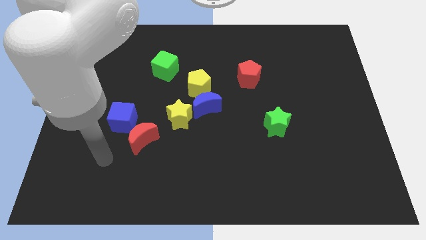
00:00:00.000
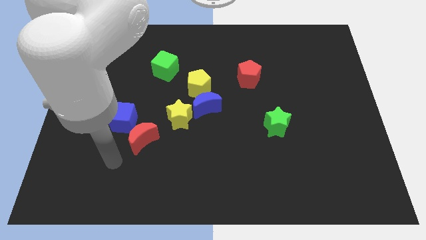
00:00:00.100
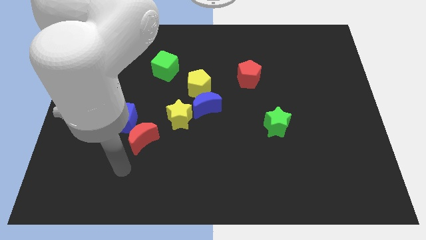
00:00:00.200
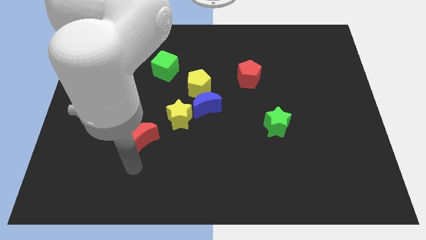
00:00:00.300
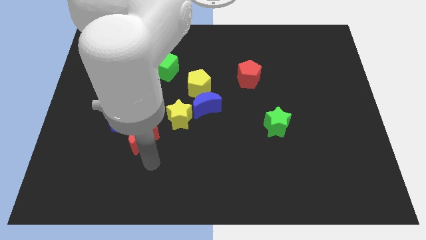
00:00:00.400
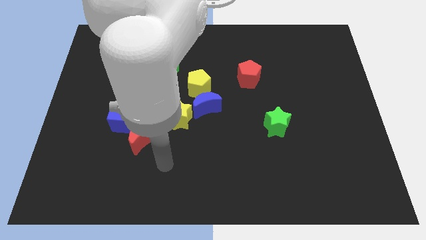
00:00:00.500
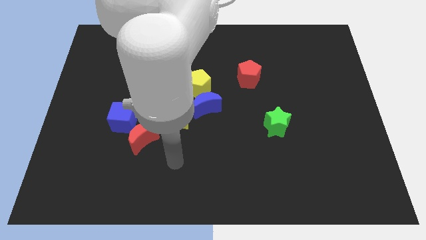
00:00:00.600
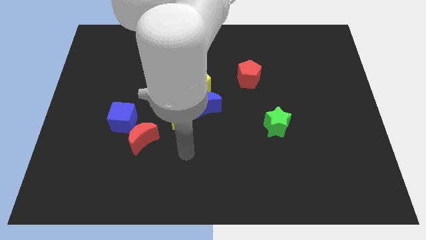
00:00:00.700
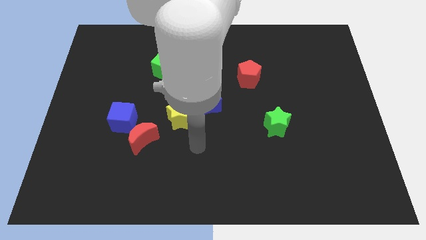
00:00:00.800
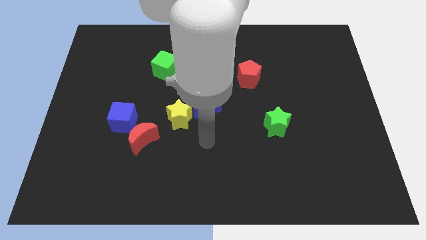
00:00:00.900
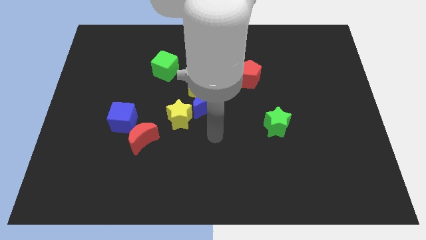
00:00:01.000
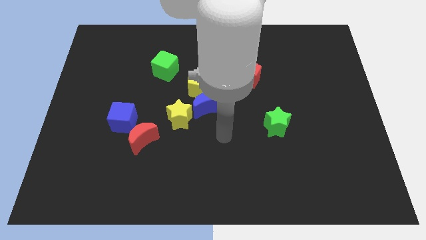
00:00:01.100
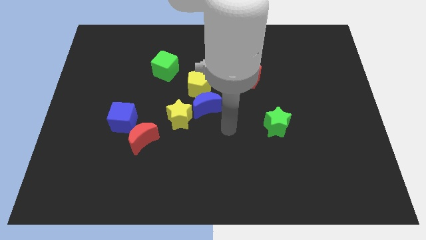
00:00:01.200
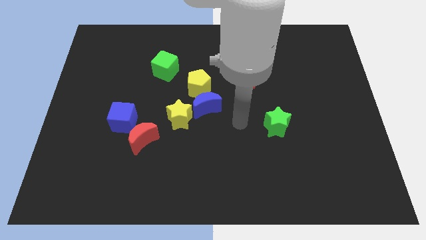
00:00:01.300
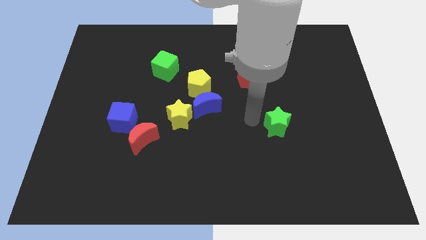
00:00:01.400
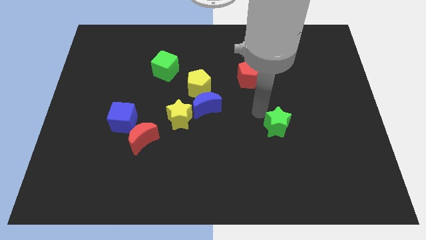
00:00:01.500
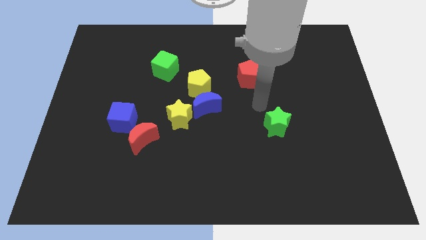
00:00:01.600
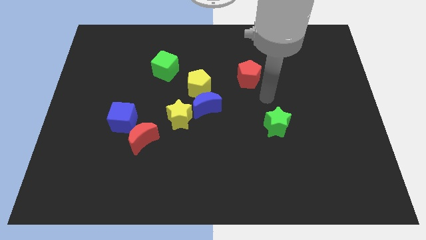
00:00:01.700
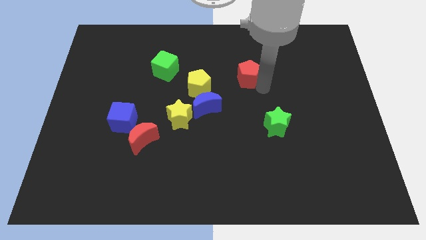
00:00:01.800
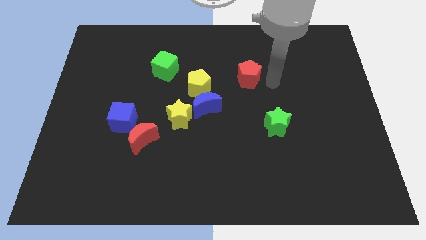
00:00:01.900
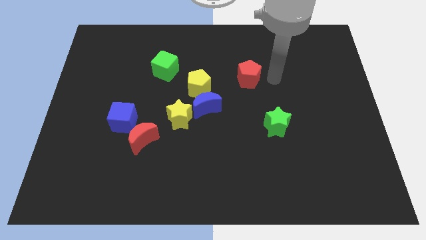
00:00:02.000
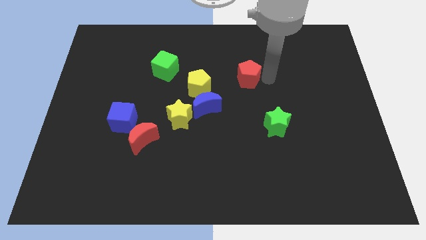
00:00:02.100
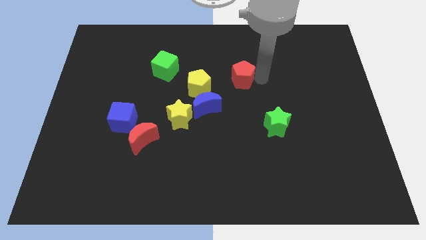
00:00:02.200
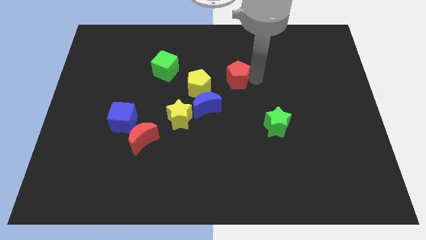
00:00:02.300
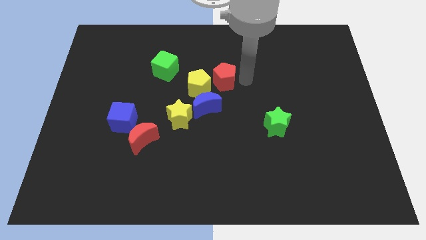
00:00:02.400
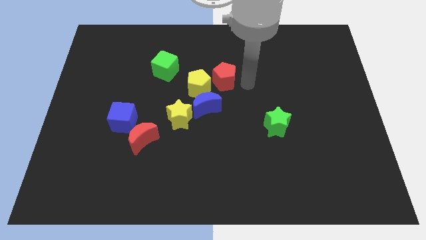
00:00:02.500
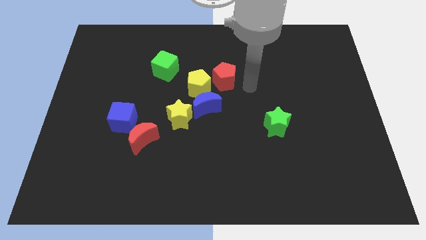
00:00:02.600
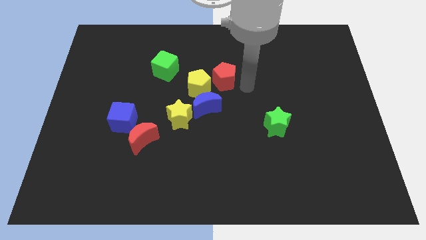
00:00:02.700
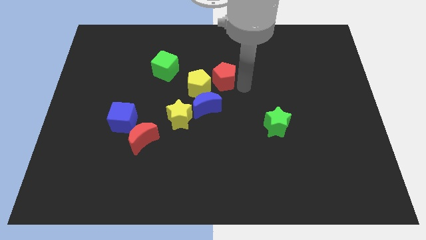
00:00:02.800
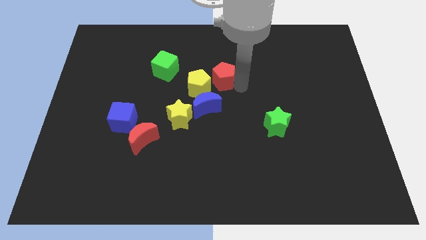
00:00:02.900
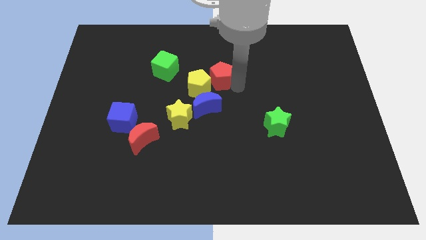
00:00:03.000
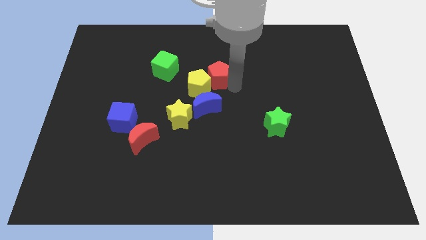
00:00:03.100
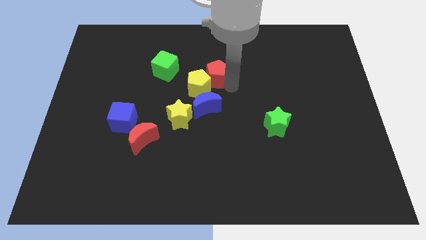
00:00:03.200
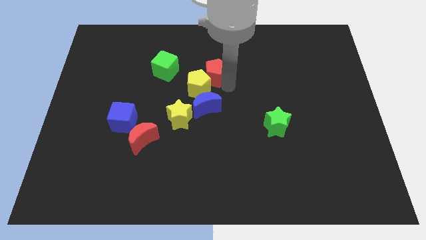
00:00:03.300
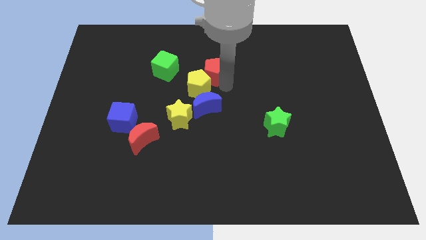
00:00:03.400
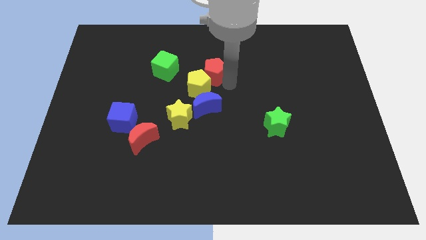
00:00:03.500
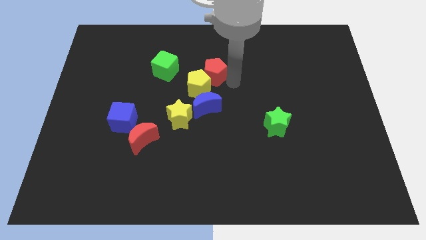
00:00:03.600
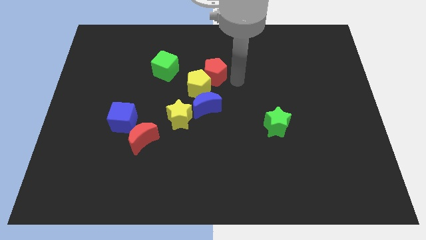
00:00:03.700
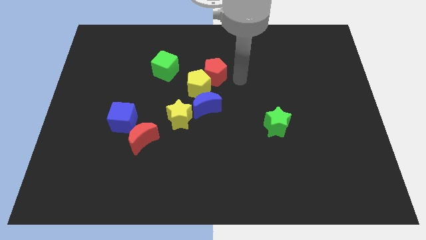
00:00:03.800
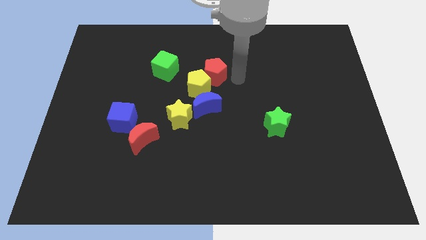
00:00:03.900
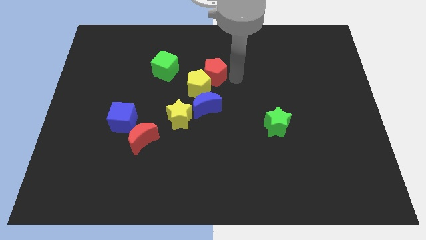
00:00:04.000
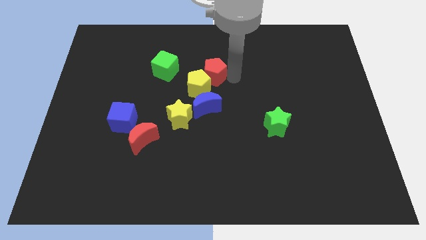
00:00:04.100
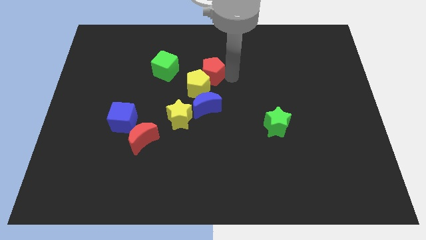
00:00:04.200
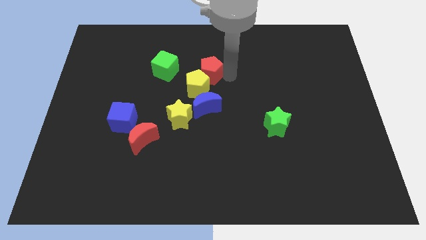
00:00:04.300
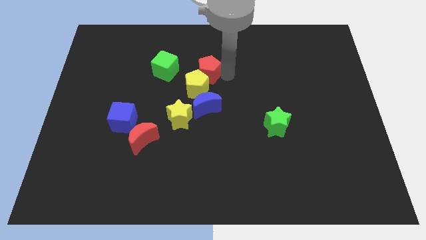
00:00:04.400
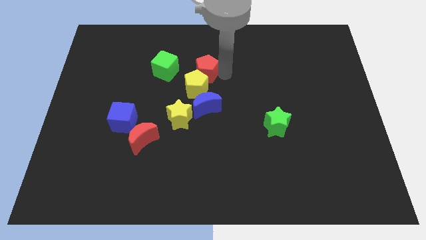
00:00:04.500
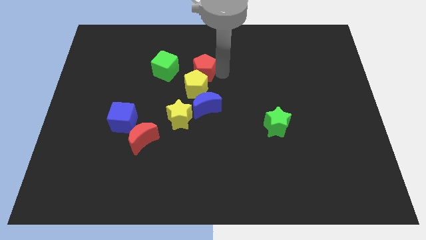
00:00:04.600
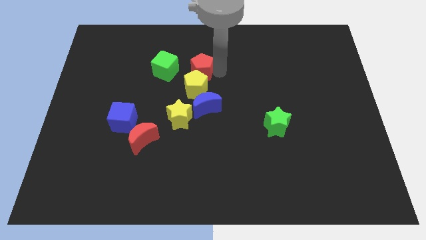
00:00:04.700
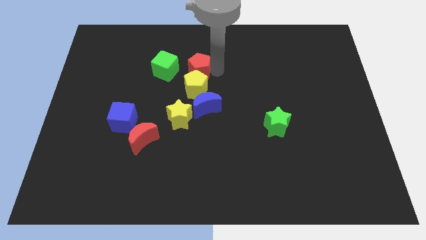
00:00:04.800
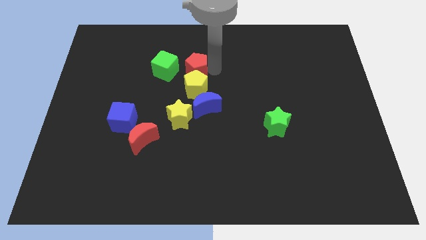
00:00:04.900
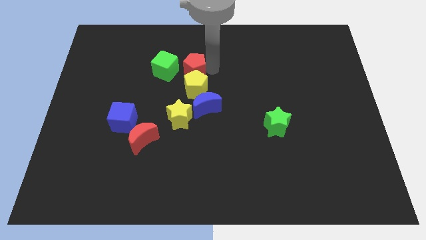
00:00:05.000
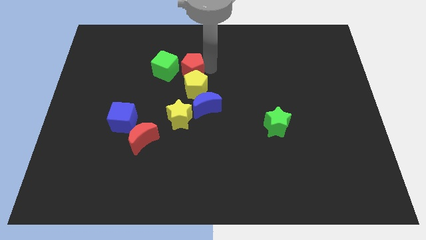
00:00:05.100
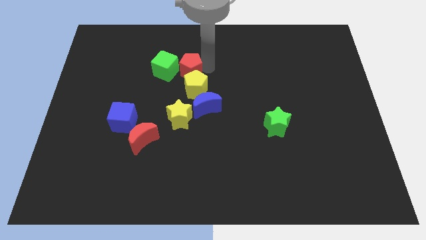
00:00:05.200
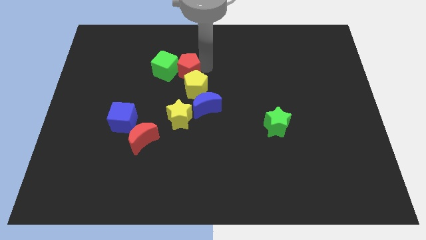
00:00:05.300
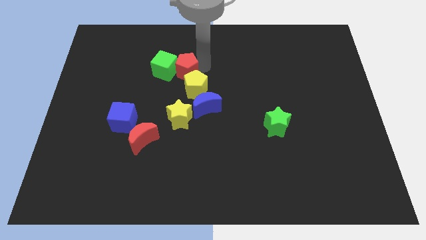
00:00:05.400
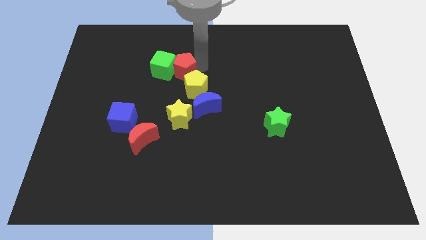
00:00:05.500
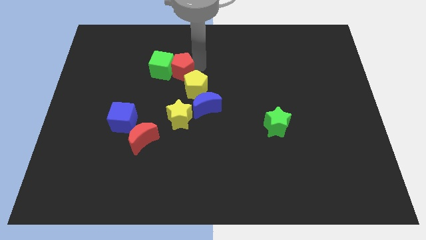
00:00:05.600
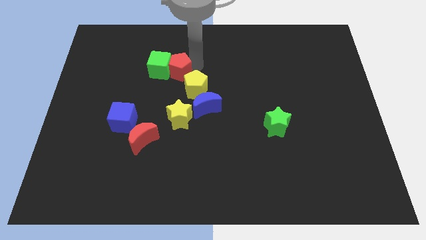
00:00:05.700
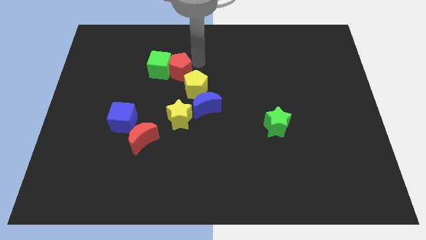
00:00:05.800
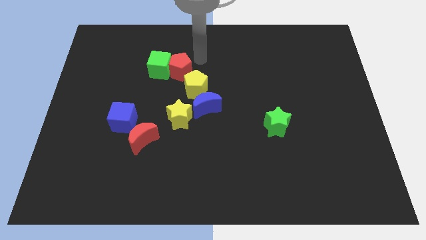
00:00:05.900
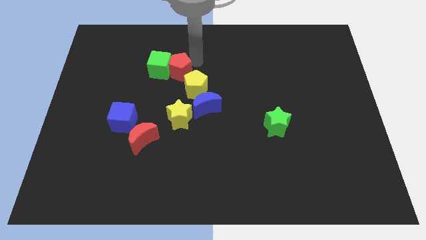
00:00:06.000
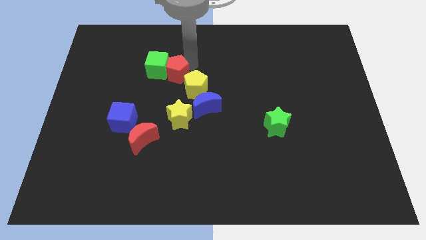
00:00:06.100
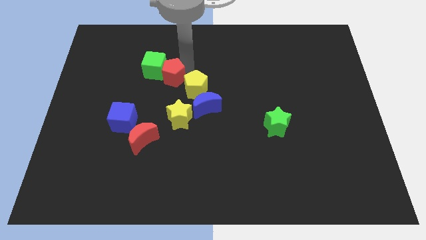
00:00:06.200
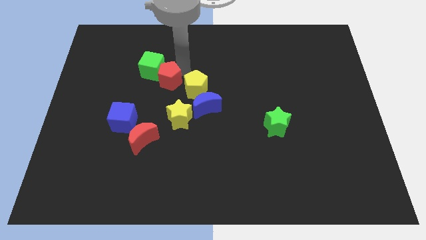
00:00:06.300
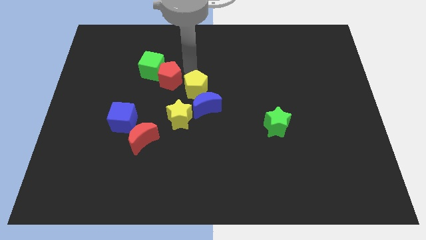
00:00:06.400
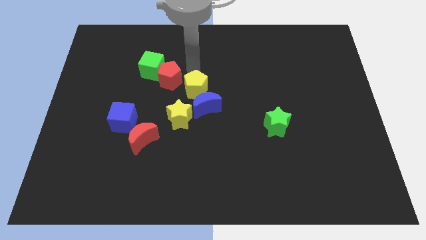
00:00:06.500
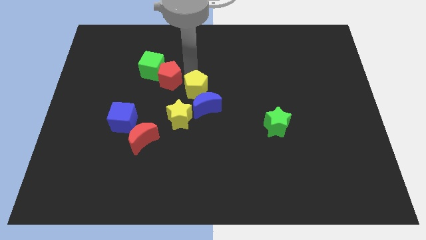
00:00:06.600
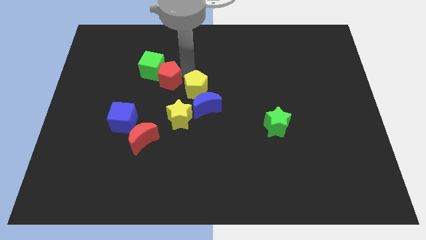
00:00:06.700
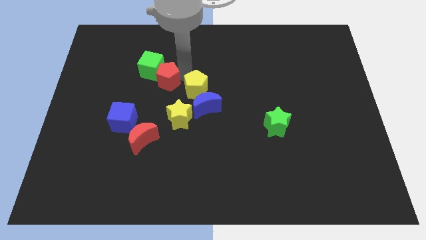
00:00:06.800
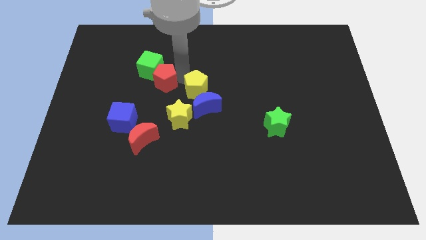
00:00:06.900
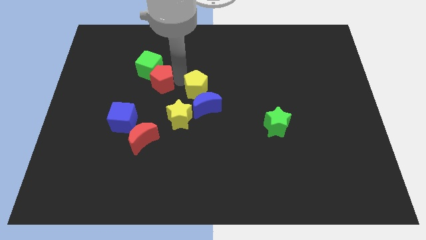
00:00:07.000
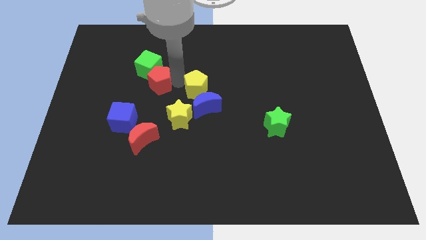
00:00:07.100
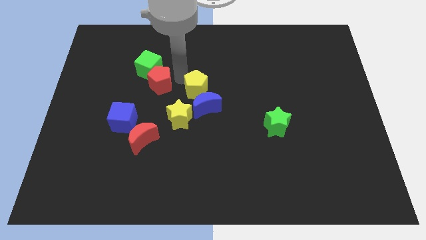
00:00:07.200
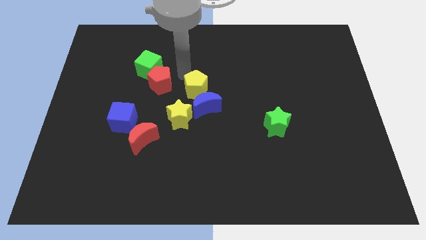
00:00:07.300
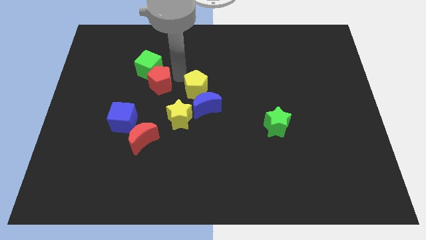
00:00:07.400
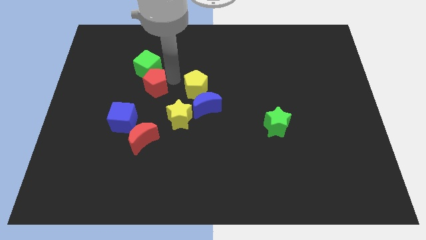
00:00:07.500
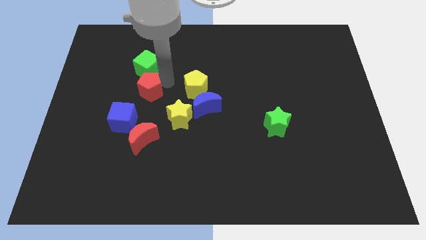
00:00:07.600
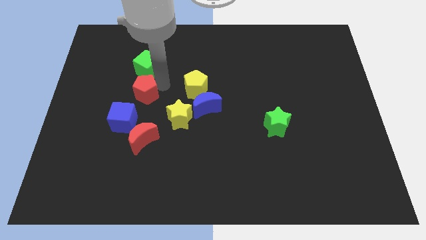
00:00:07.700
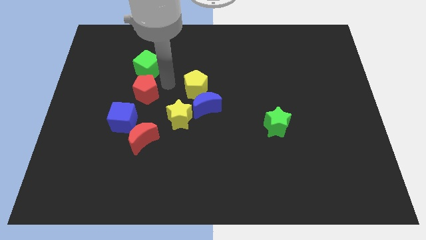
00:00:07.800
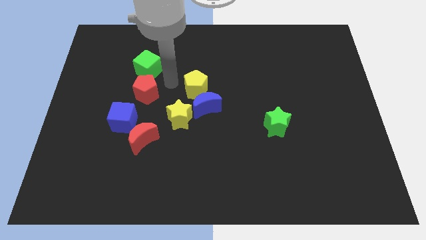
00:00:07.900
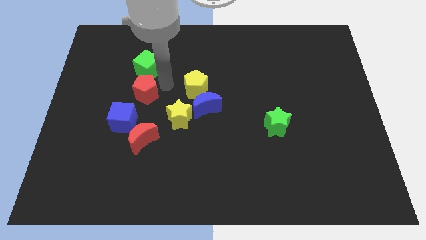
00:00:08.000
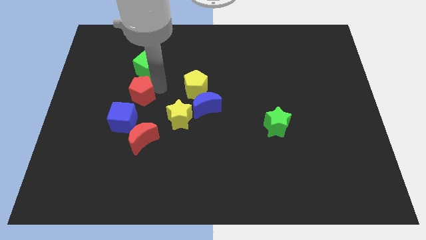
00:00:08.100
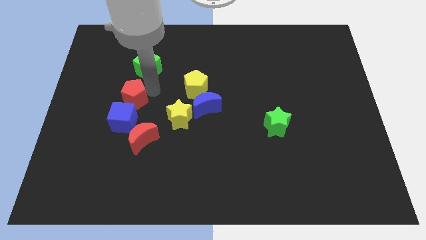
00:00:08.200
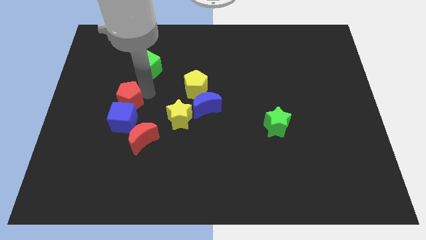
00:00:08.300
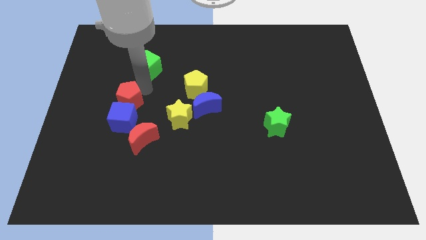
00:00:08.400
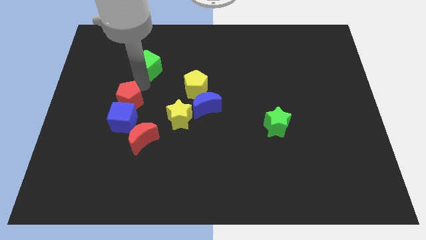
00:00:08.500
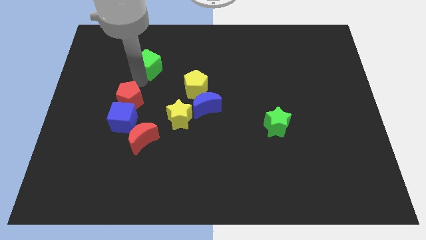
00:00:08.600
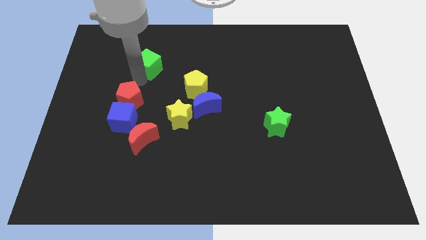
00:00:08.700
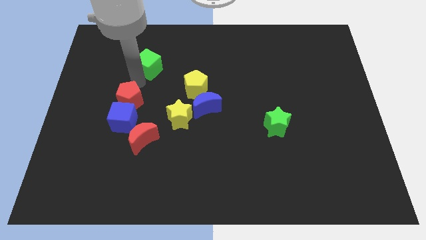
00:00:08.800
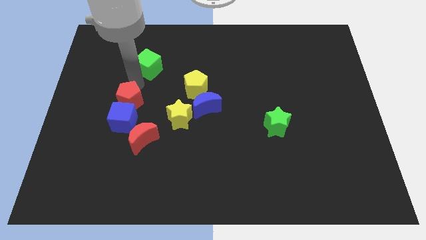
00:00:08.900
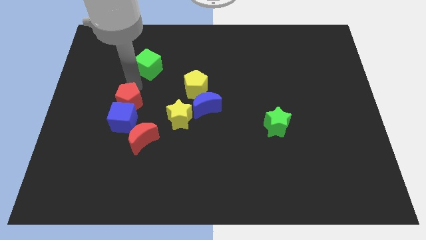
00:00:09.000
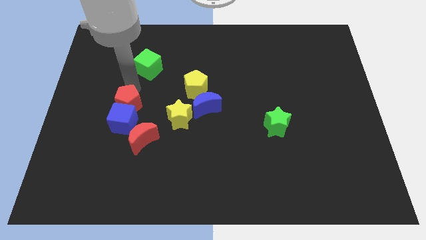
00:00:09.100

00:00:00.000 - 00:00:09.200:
move the red pentagon diagonally up and to the left of the red moon
